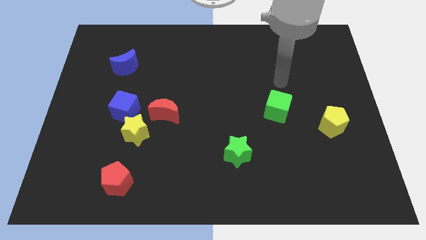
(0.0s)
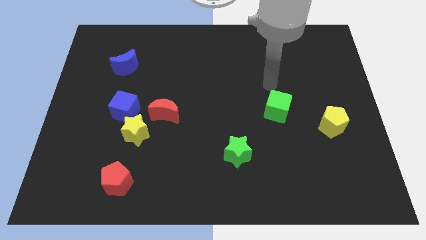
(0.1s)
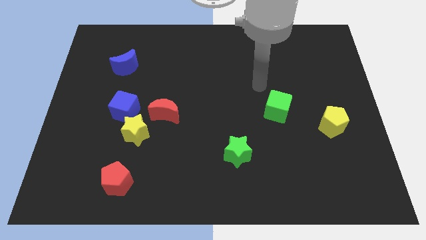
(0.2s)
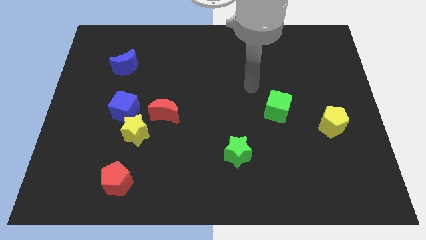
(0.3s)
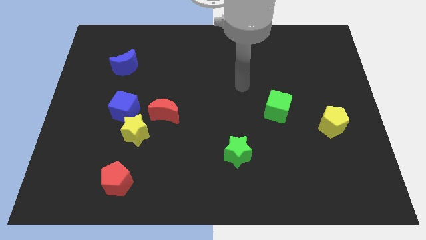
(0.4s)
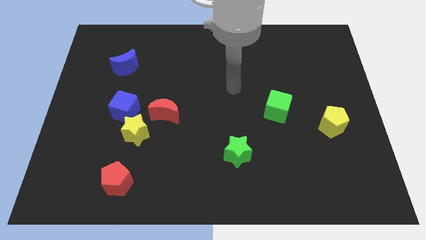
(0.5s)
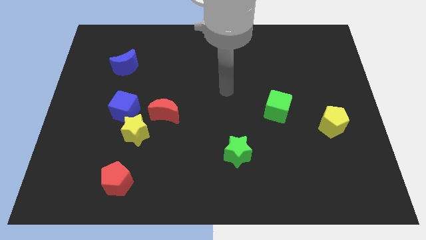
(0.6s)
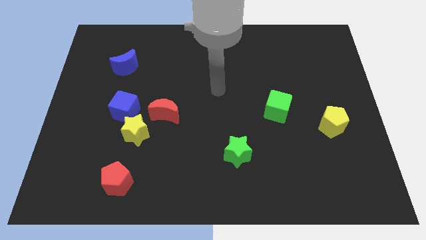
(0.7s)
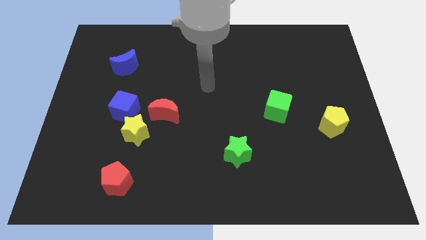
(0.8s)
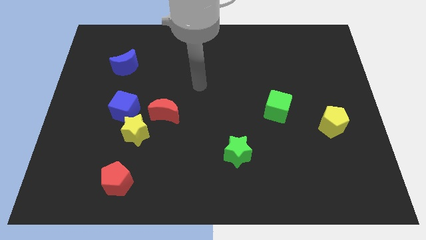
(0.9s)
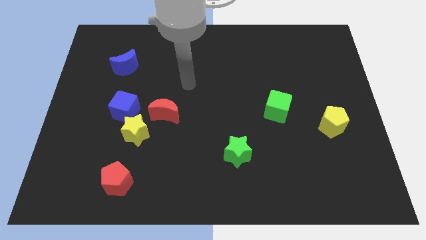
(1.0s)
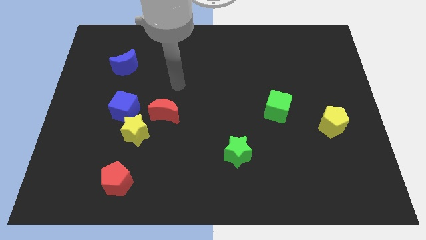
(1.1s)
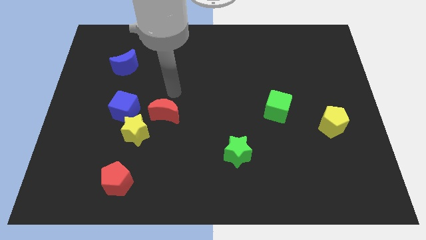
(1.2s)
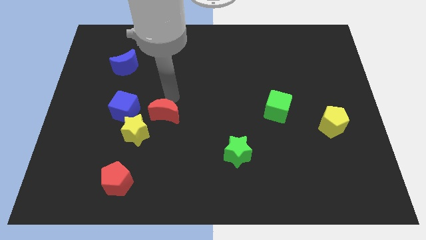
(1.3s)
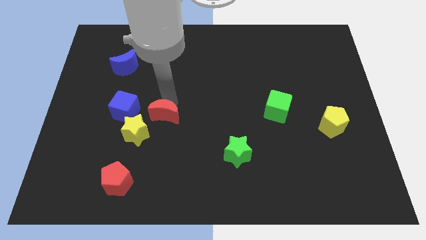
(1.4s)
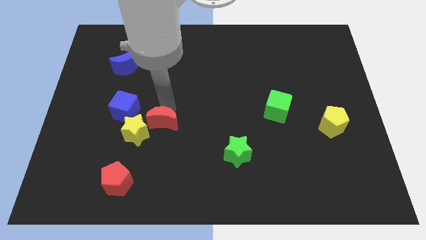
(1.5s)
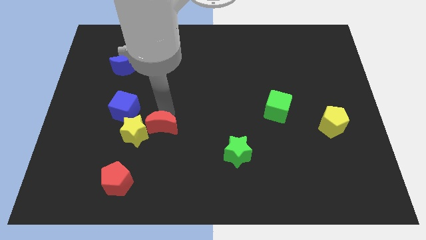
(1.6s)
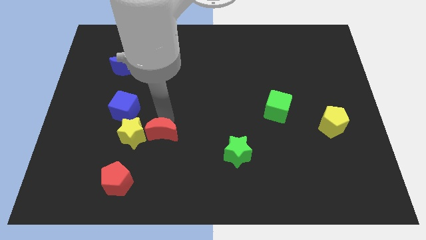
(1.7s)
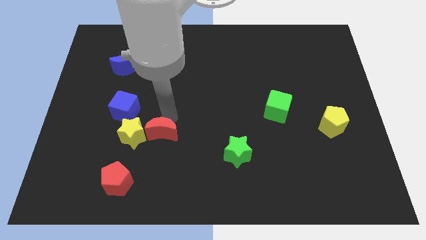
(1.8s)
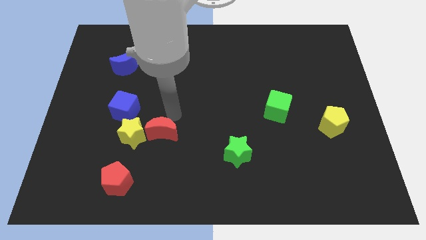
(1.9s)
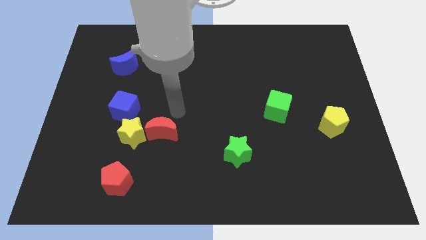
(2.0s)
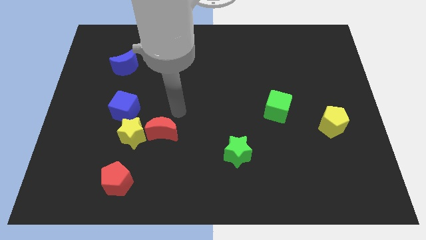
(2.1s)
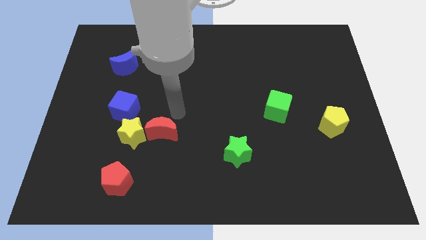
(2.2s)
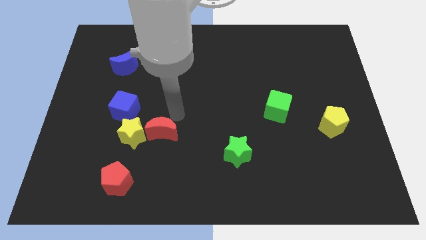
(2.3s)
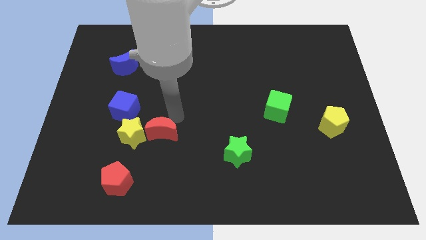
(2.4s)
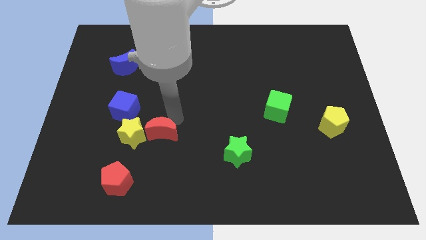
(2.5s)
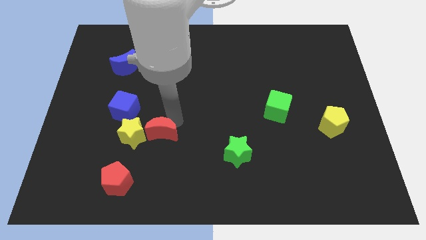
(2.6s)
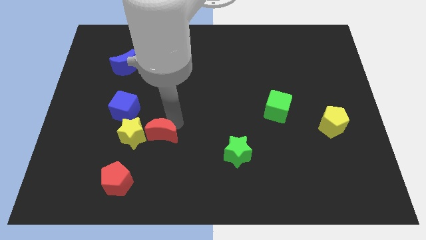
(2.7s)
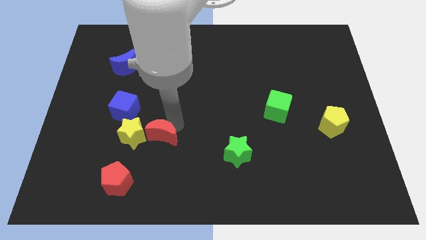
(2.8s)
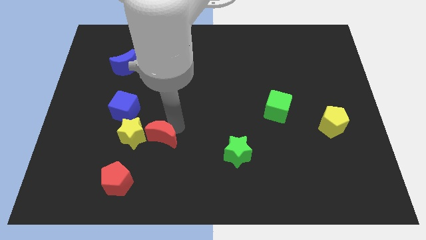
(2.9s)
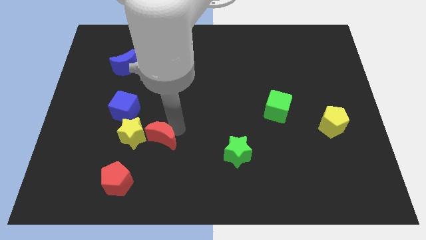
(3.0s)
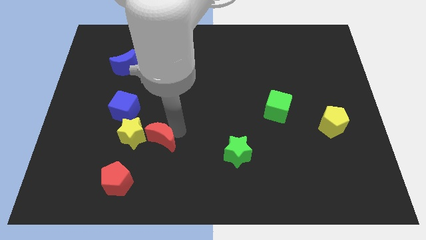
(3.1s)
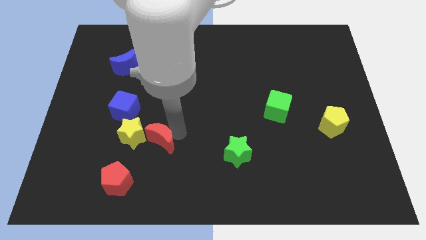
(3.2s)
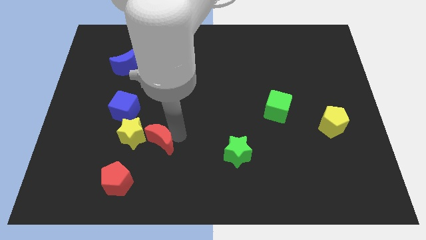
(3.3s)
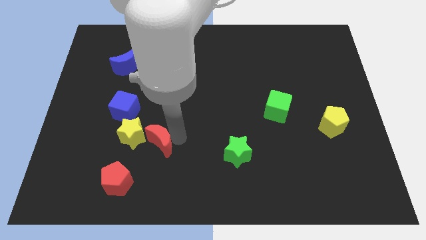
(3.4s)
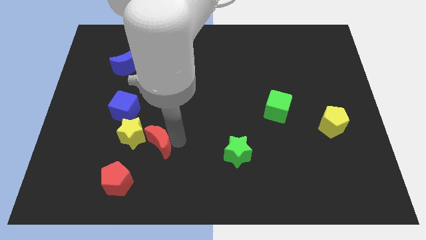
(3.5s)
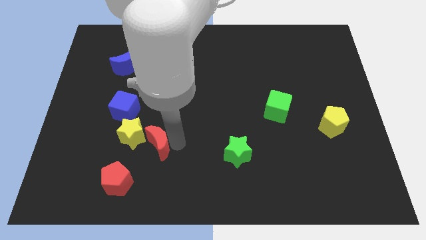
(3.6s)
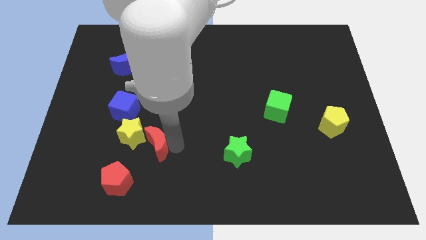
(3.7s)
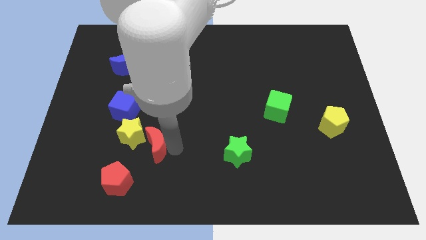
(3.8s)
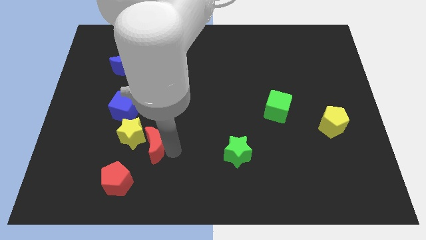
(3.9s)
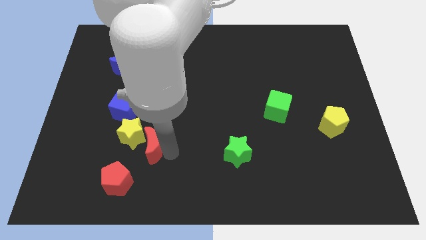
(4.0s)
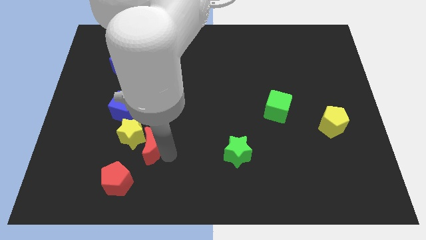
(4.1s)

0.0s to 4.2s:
slide the red moon diagonally down and to the left a little

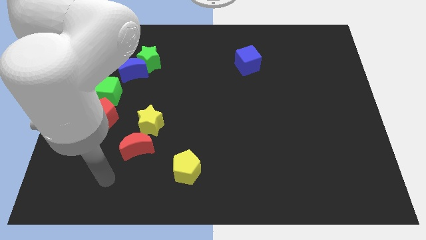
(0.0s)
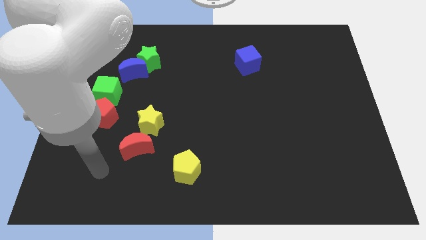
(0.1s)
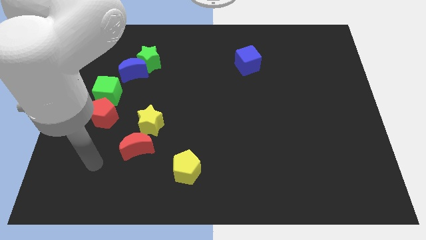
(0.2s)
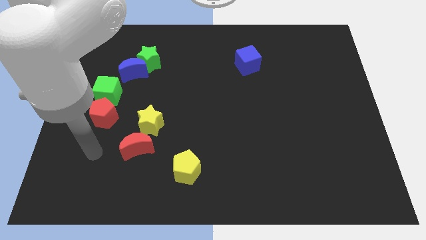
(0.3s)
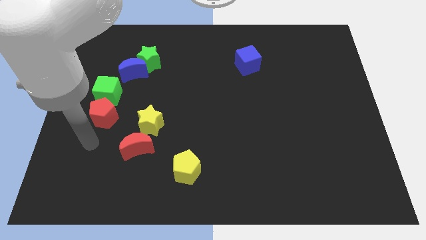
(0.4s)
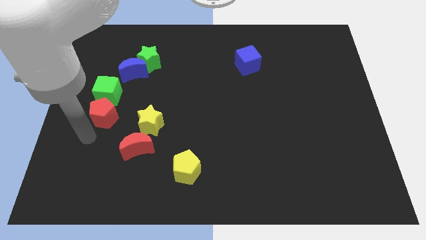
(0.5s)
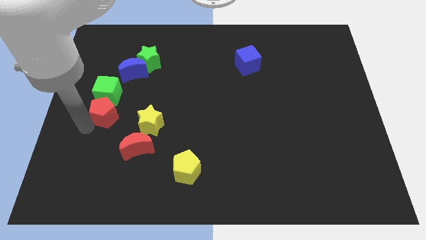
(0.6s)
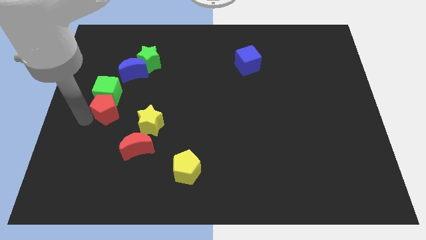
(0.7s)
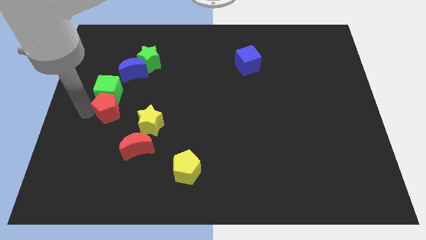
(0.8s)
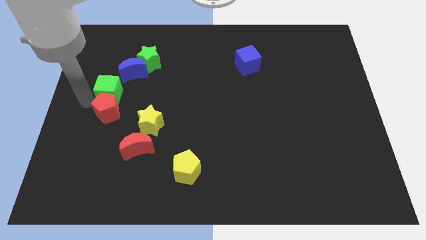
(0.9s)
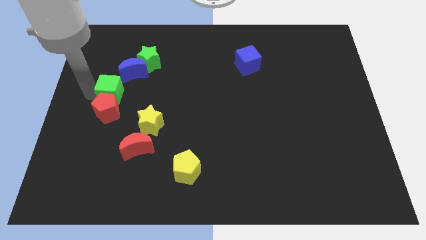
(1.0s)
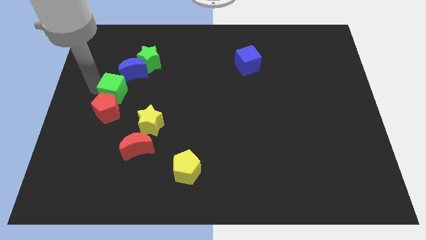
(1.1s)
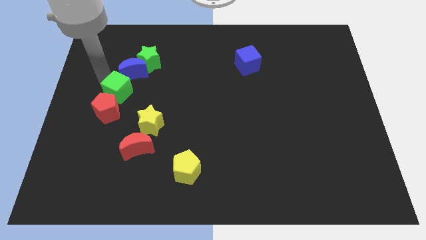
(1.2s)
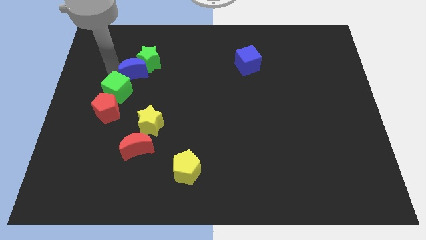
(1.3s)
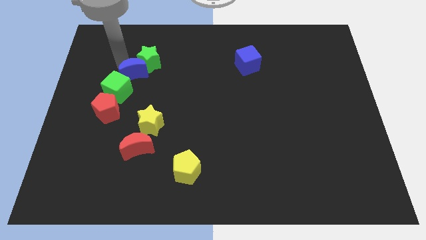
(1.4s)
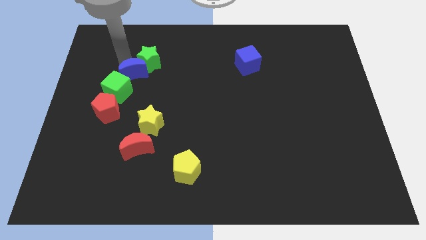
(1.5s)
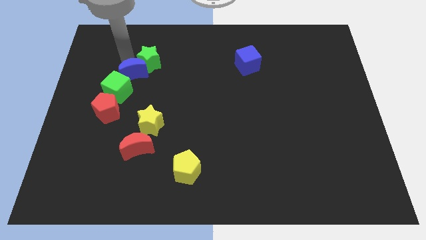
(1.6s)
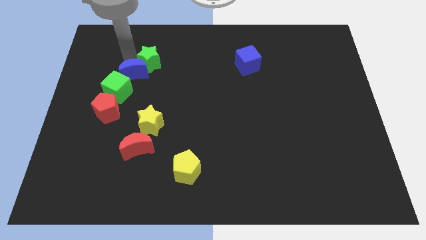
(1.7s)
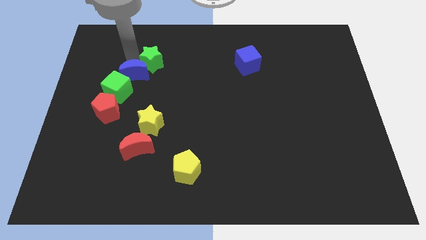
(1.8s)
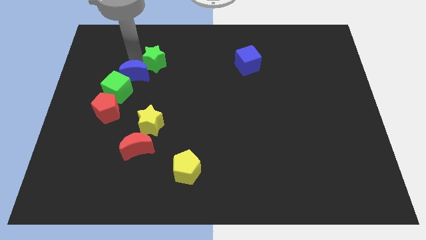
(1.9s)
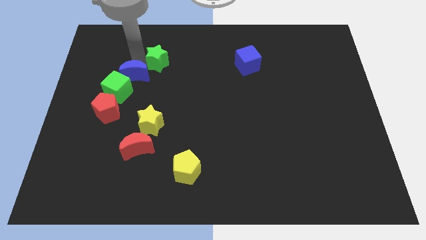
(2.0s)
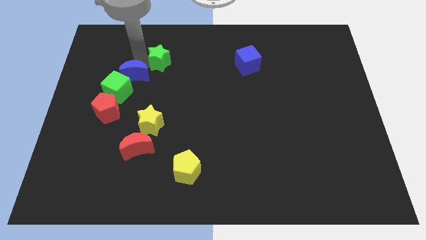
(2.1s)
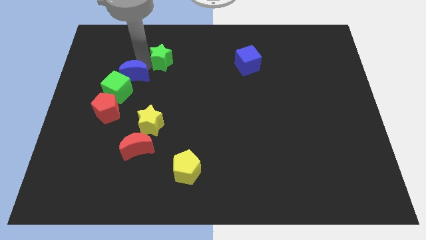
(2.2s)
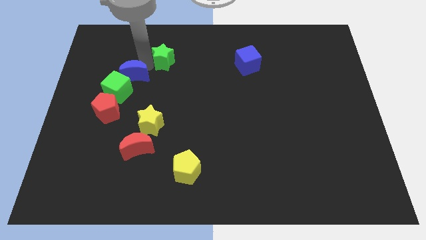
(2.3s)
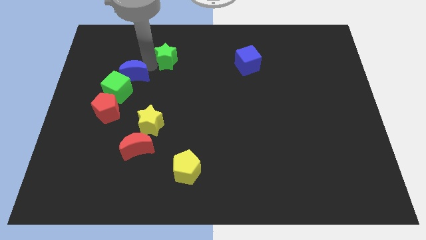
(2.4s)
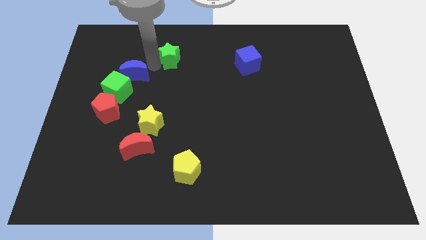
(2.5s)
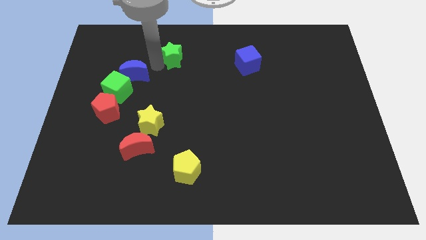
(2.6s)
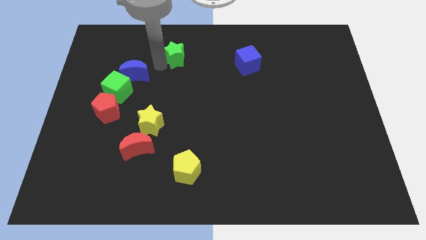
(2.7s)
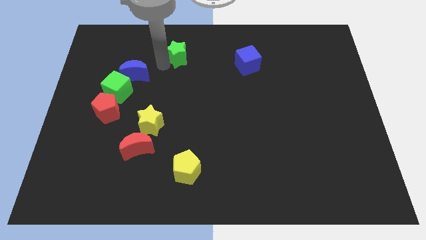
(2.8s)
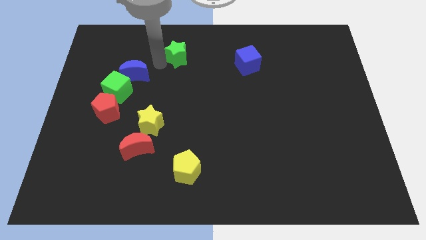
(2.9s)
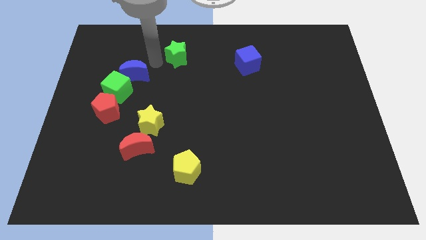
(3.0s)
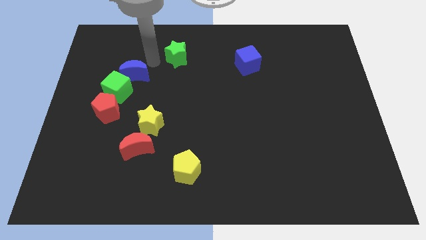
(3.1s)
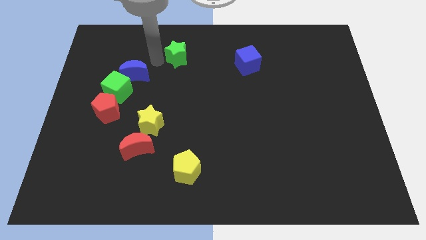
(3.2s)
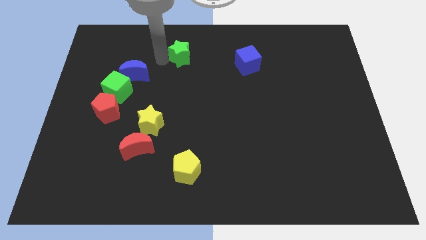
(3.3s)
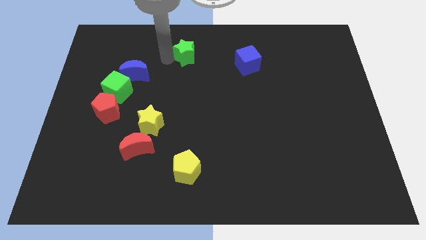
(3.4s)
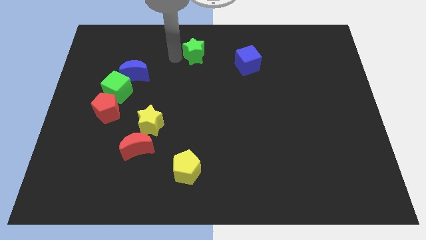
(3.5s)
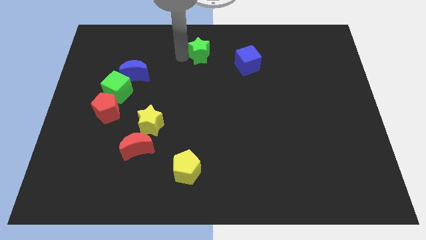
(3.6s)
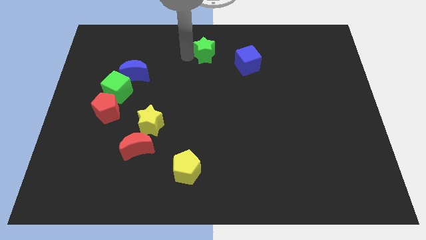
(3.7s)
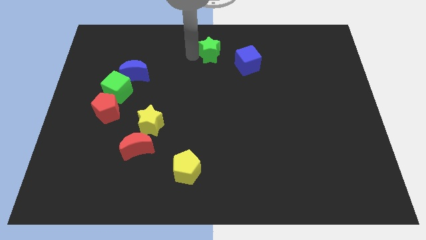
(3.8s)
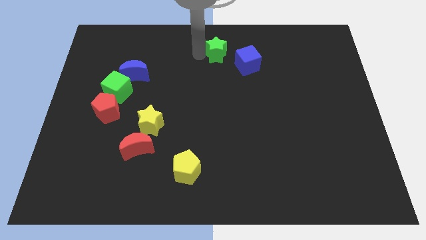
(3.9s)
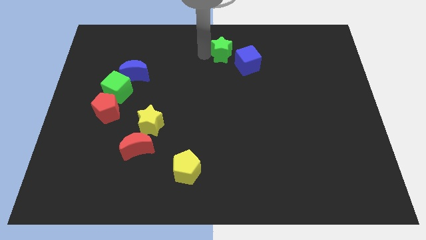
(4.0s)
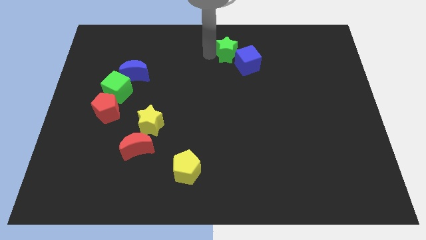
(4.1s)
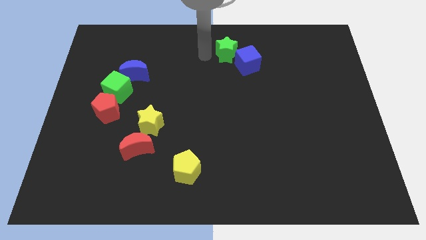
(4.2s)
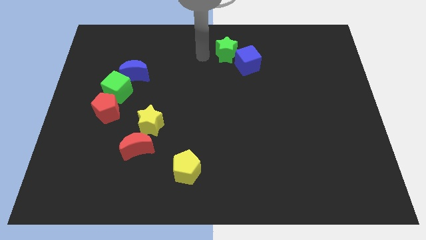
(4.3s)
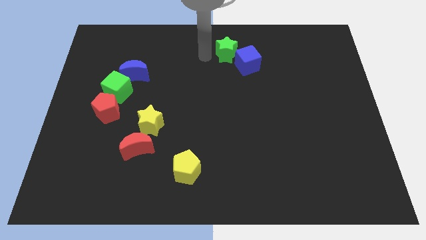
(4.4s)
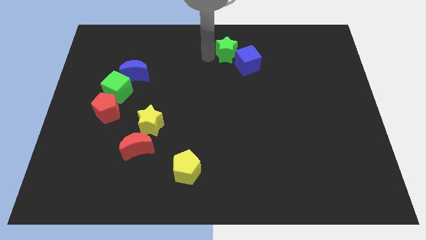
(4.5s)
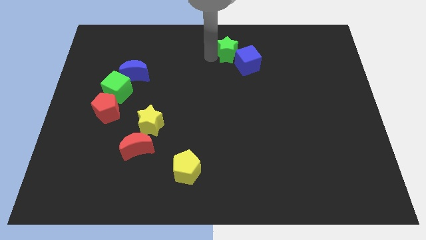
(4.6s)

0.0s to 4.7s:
push the green star right
